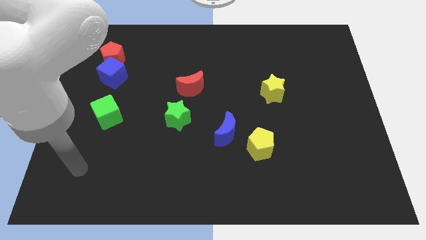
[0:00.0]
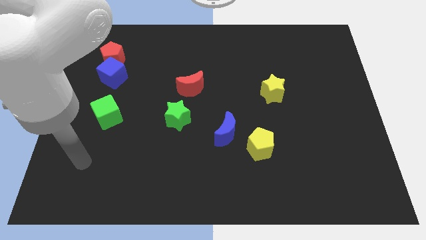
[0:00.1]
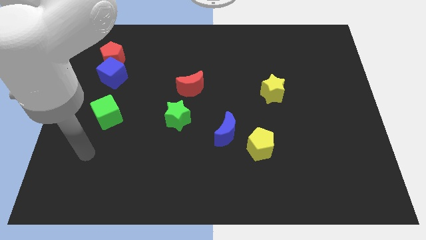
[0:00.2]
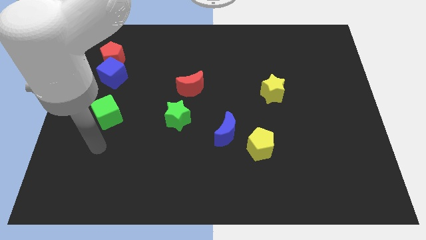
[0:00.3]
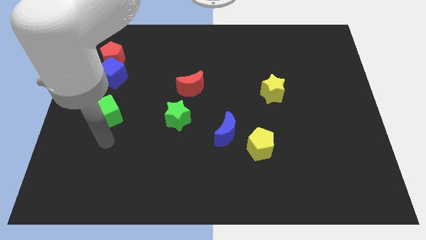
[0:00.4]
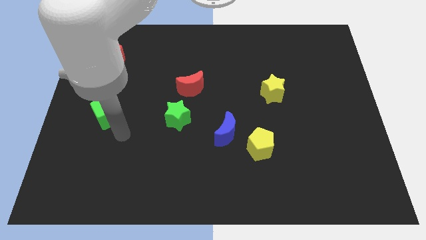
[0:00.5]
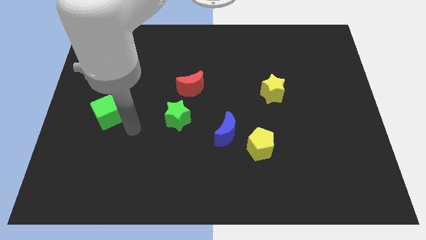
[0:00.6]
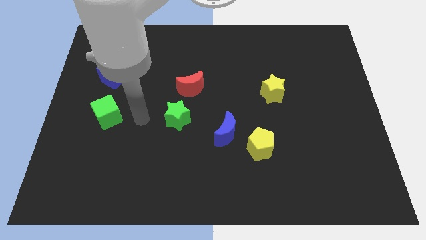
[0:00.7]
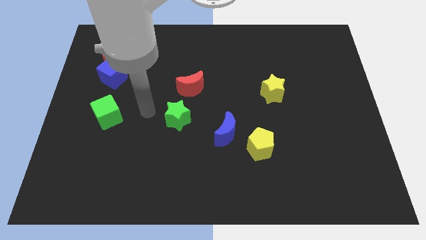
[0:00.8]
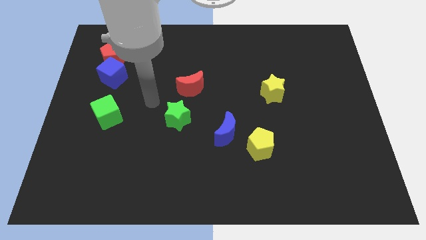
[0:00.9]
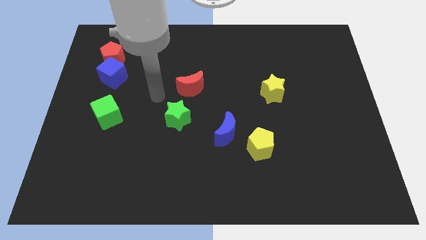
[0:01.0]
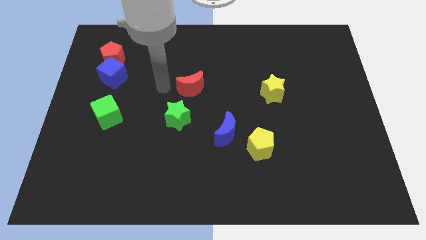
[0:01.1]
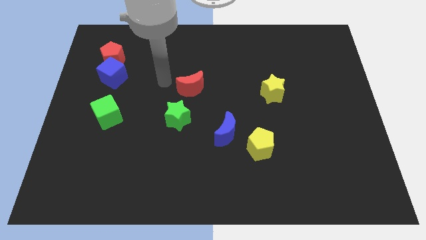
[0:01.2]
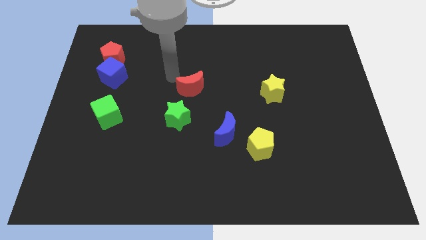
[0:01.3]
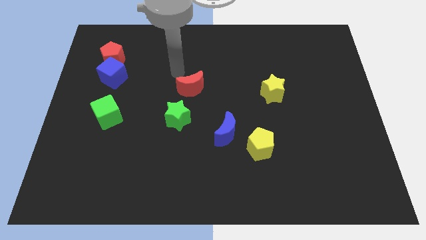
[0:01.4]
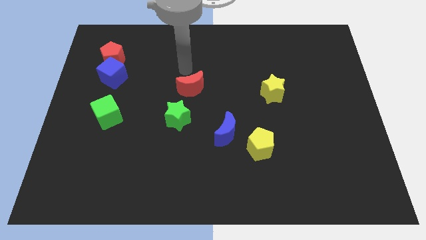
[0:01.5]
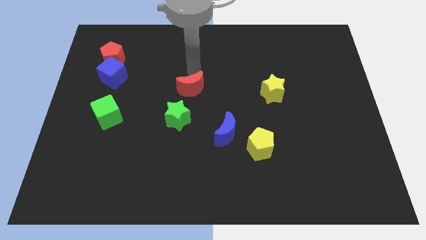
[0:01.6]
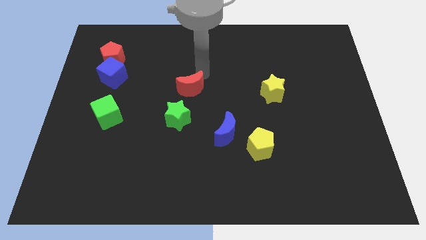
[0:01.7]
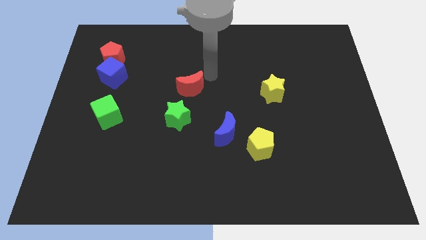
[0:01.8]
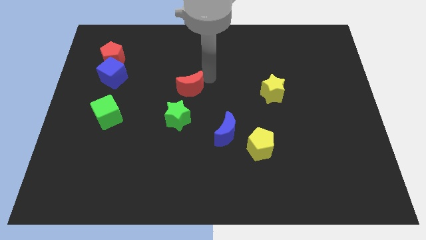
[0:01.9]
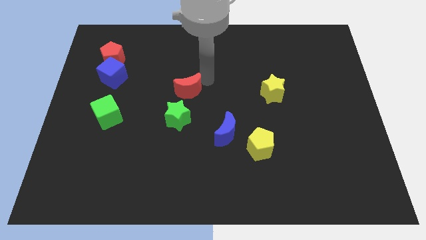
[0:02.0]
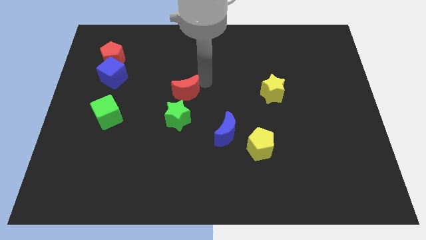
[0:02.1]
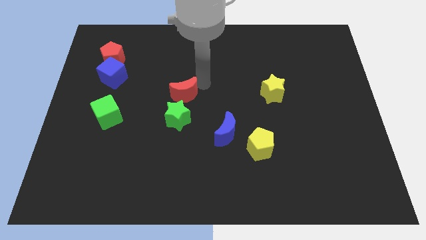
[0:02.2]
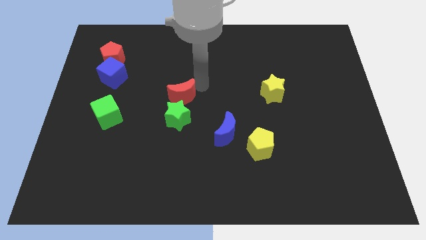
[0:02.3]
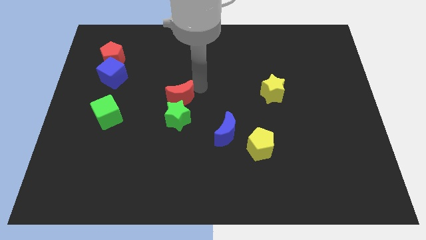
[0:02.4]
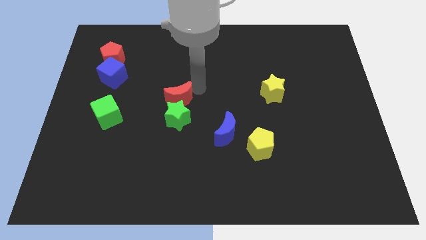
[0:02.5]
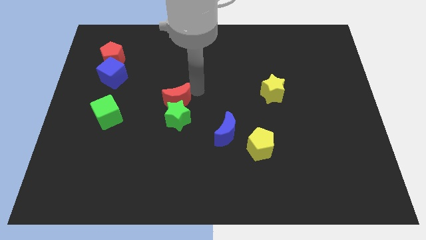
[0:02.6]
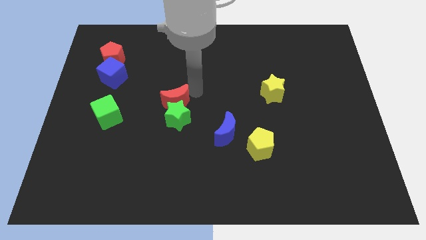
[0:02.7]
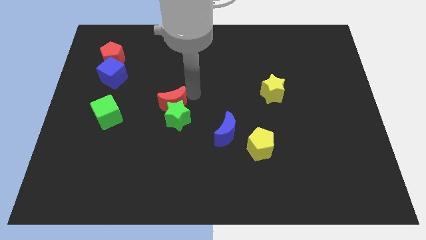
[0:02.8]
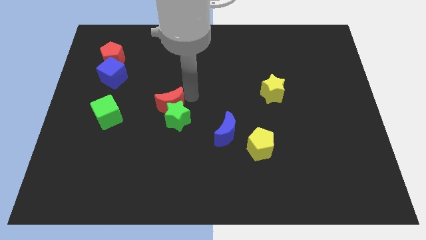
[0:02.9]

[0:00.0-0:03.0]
slightly move the red moon downwards and to the left

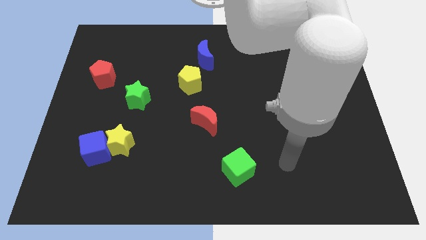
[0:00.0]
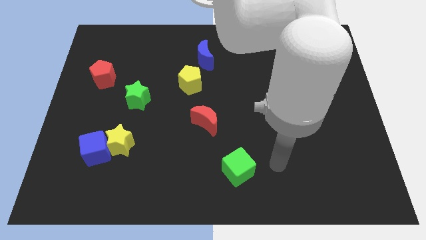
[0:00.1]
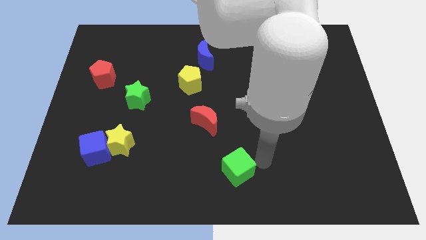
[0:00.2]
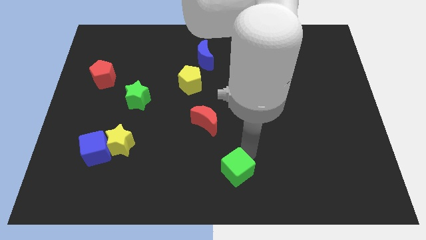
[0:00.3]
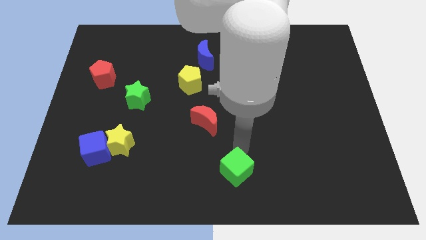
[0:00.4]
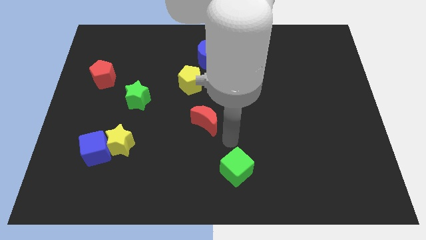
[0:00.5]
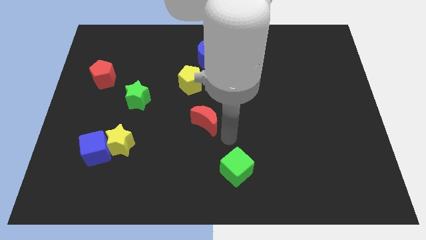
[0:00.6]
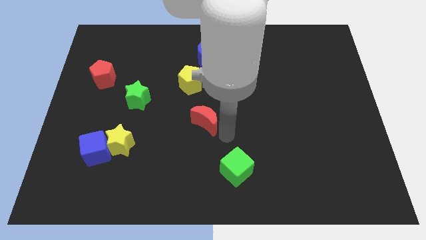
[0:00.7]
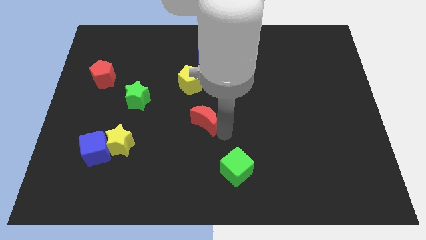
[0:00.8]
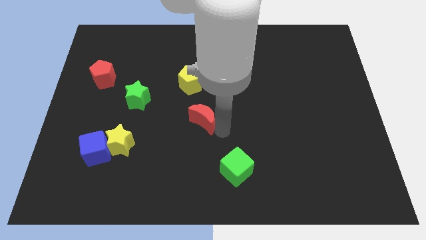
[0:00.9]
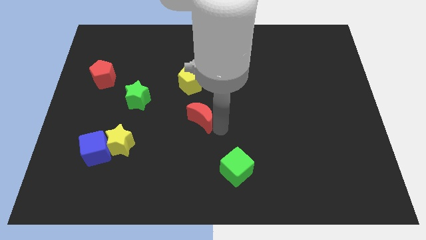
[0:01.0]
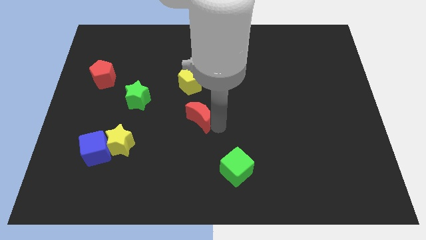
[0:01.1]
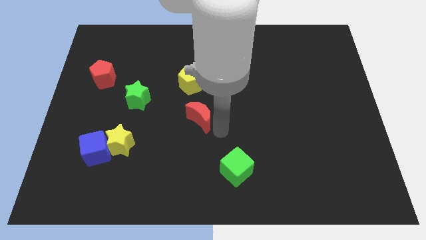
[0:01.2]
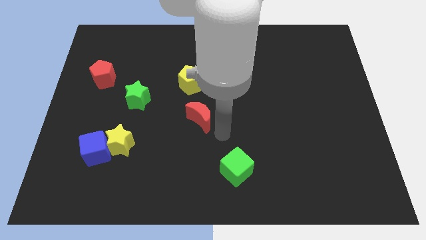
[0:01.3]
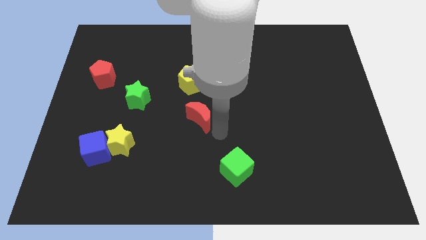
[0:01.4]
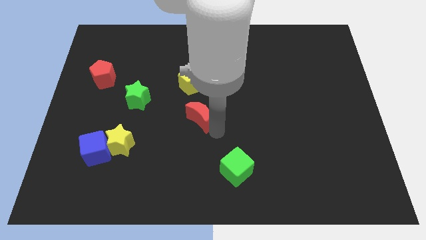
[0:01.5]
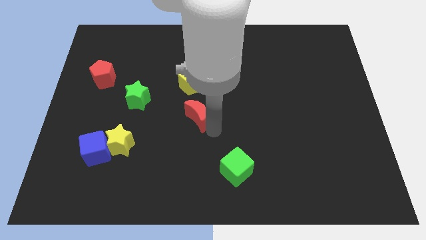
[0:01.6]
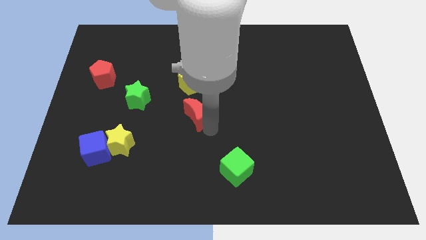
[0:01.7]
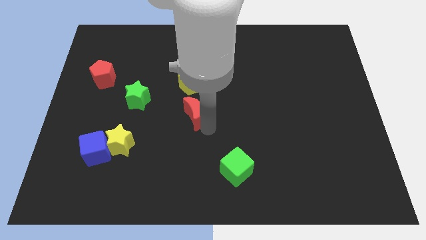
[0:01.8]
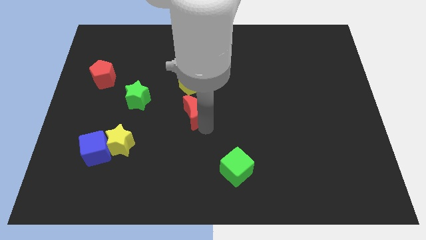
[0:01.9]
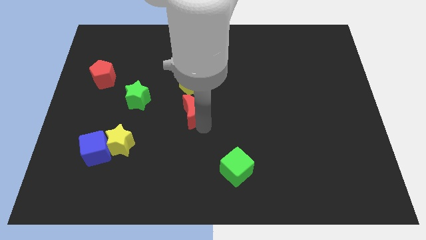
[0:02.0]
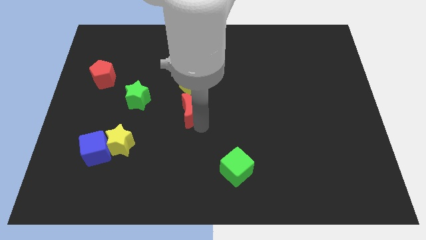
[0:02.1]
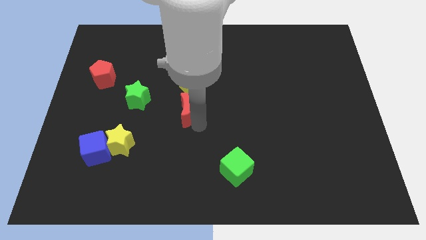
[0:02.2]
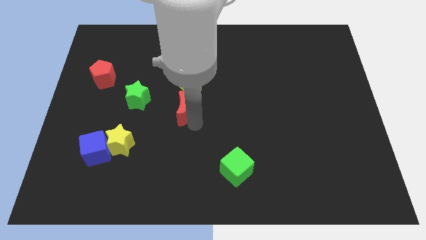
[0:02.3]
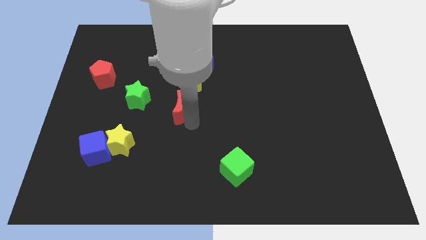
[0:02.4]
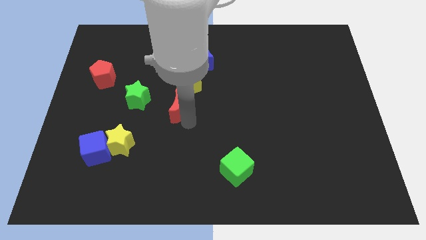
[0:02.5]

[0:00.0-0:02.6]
move the red moon up and left a little

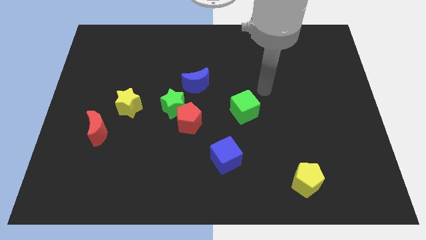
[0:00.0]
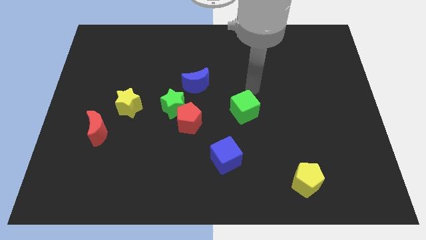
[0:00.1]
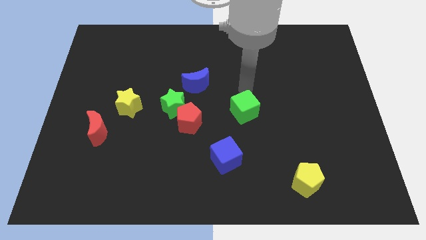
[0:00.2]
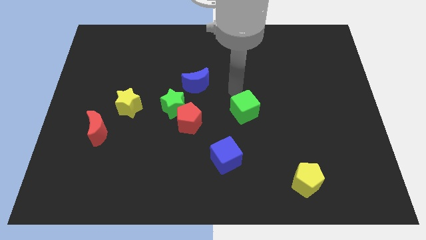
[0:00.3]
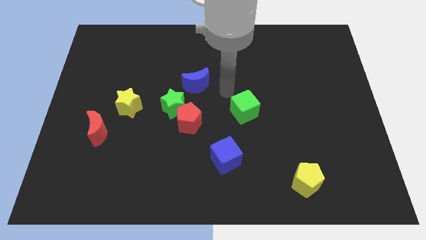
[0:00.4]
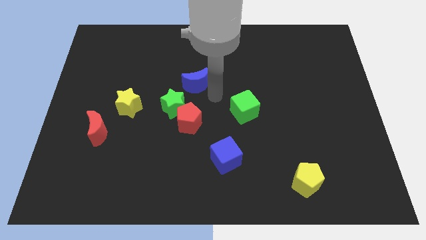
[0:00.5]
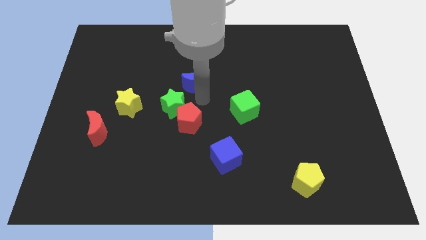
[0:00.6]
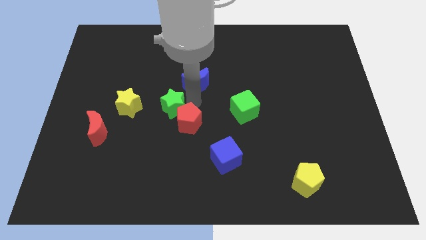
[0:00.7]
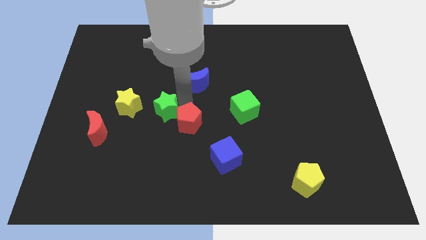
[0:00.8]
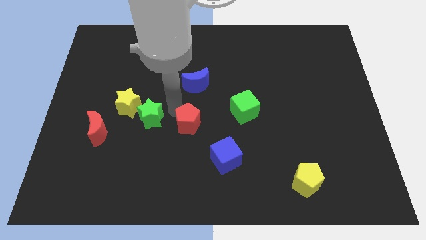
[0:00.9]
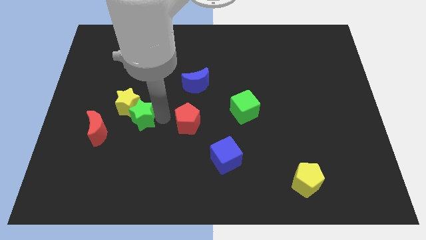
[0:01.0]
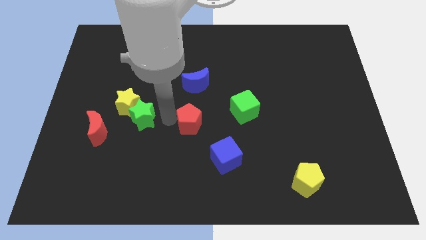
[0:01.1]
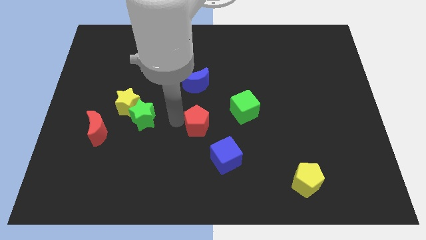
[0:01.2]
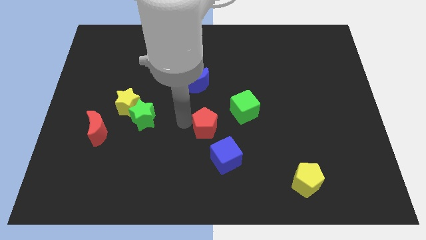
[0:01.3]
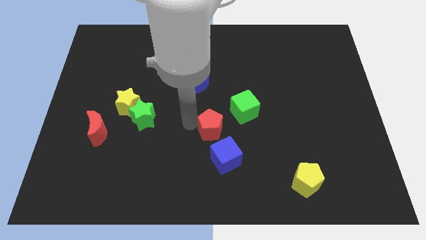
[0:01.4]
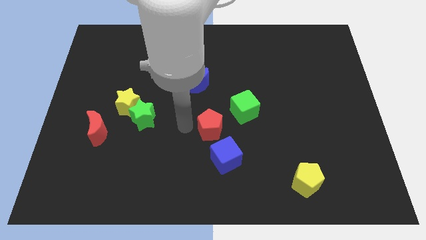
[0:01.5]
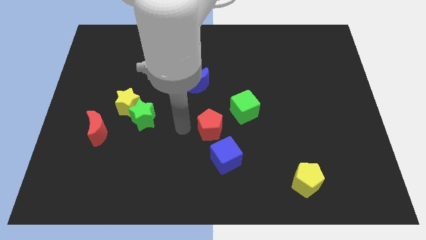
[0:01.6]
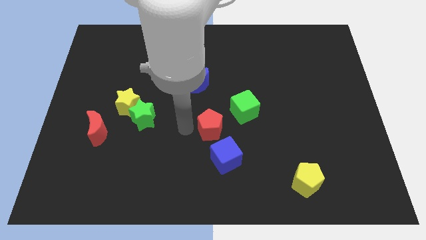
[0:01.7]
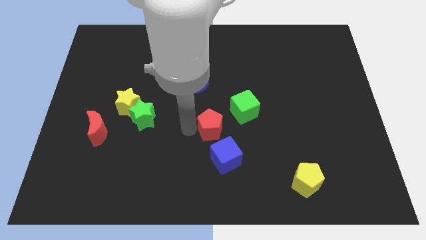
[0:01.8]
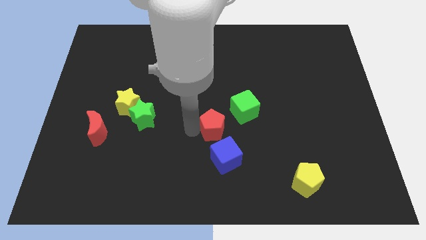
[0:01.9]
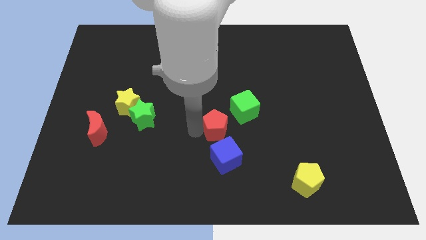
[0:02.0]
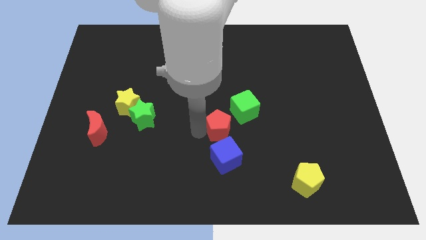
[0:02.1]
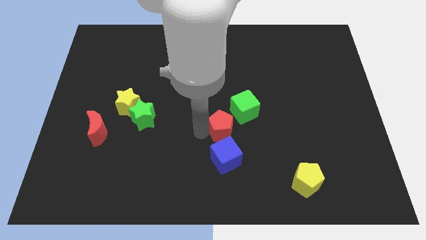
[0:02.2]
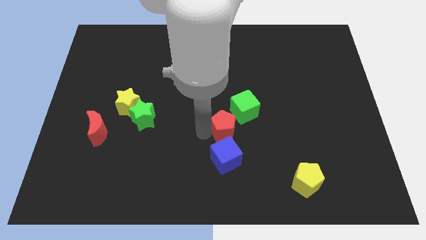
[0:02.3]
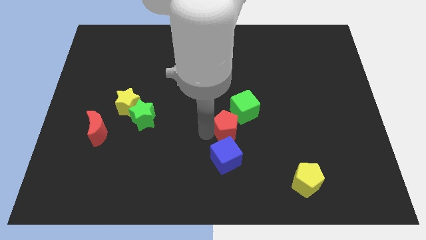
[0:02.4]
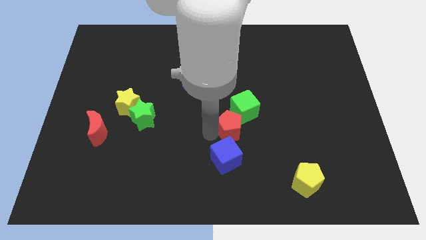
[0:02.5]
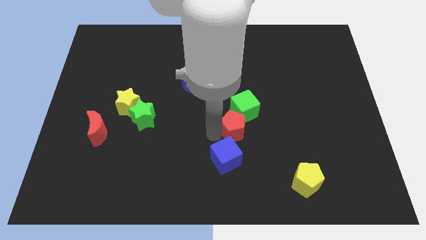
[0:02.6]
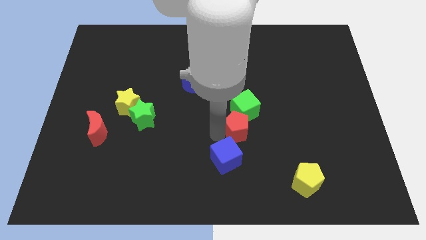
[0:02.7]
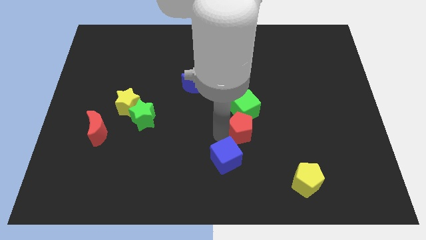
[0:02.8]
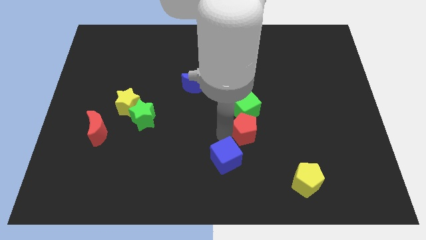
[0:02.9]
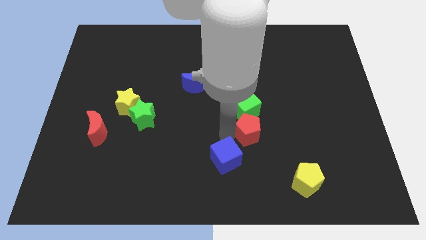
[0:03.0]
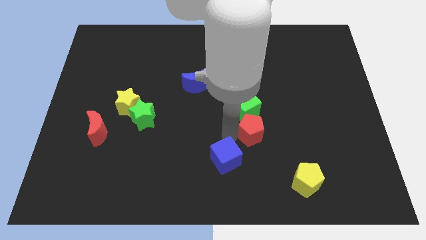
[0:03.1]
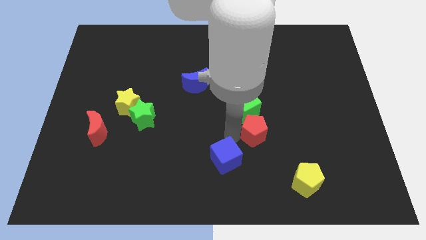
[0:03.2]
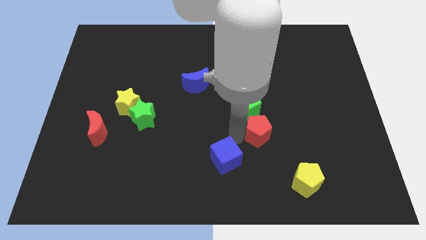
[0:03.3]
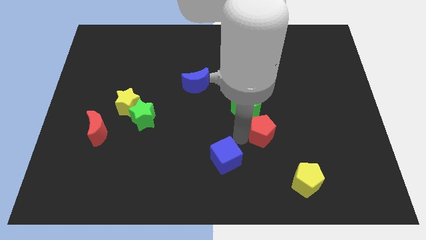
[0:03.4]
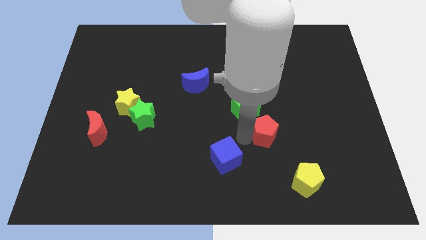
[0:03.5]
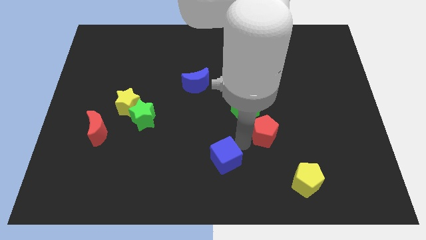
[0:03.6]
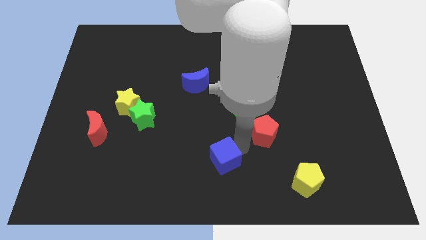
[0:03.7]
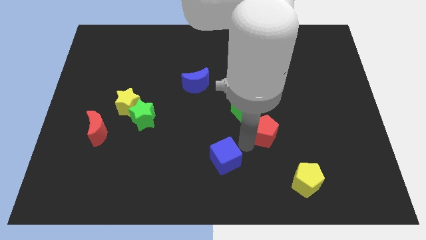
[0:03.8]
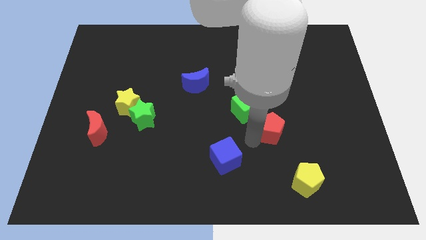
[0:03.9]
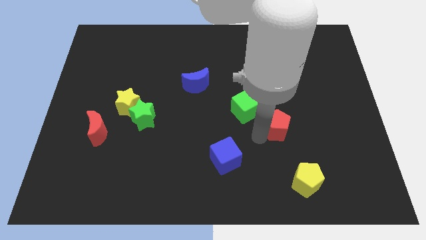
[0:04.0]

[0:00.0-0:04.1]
move the red pentagon to the right
